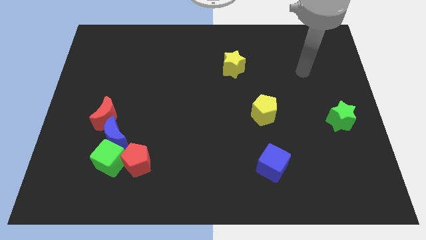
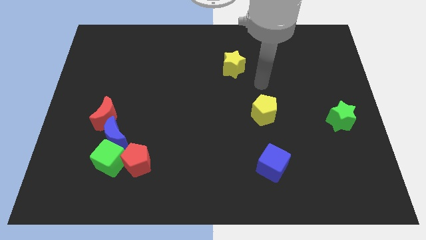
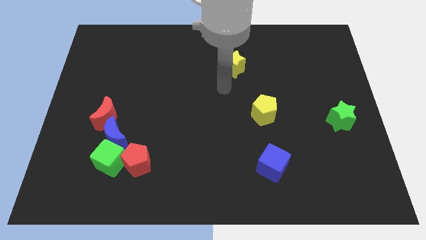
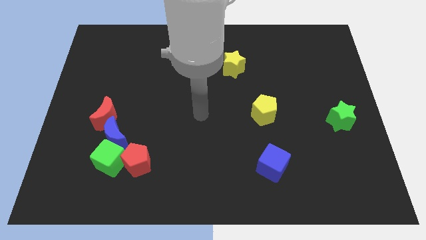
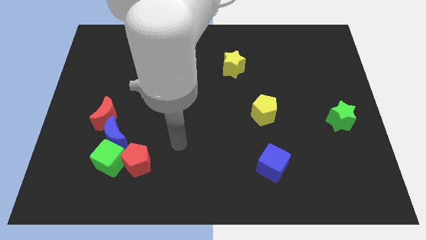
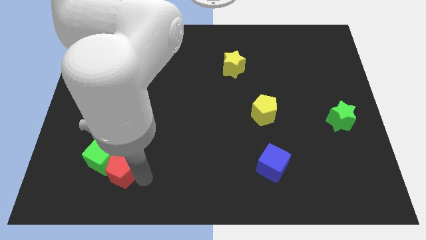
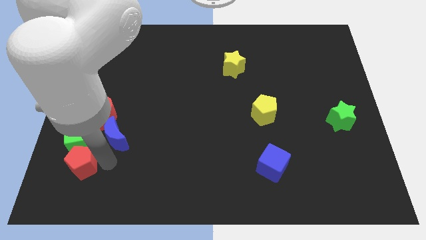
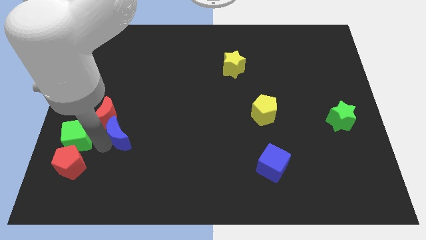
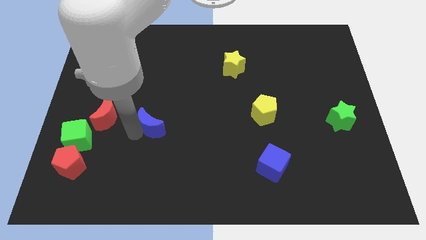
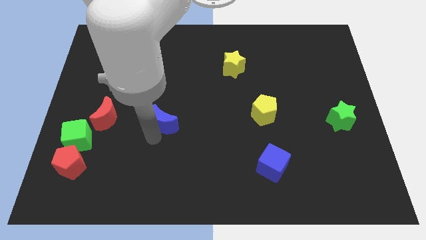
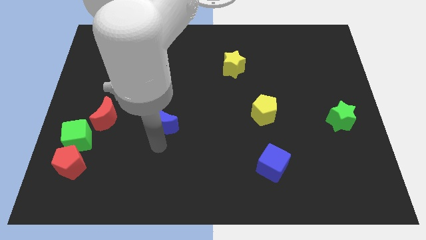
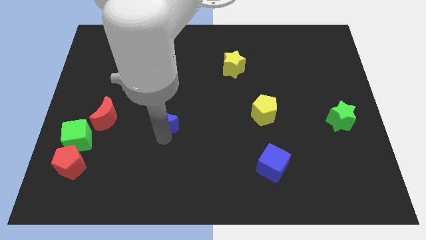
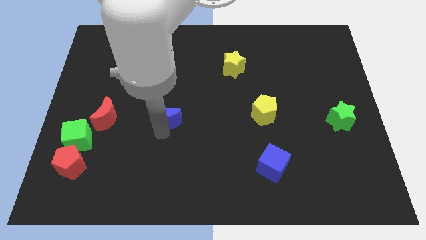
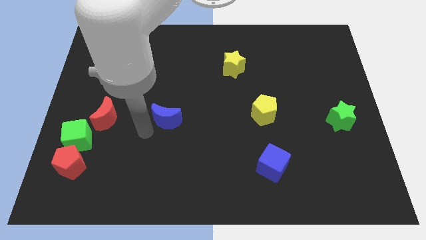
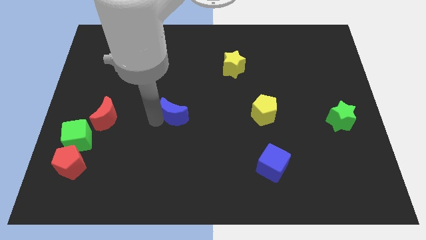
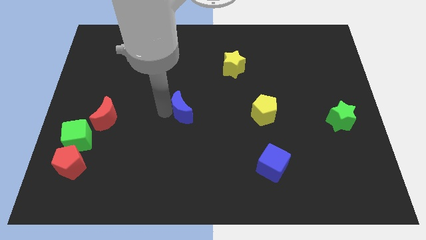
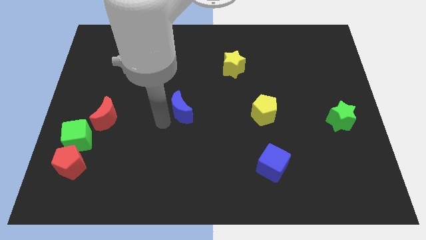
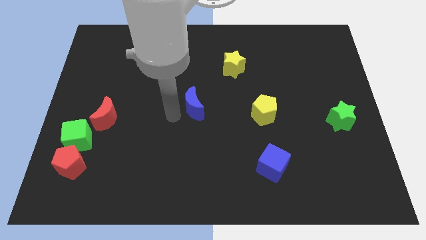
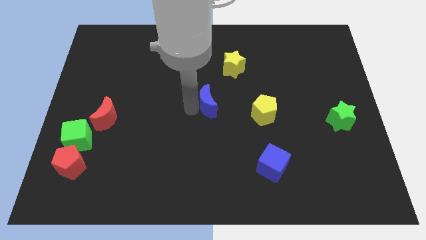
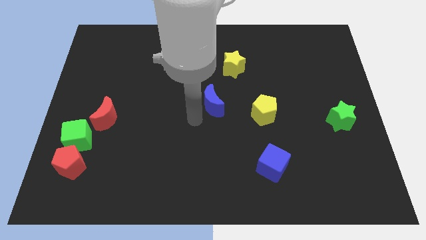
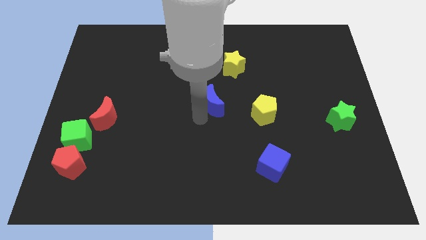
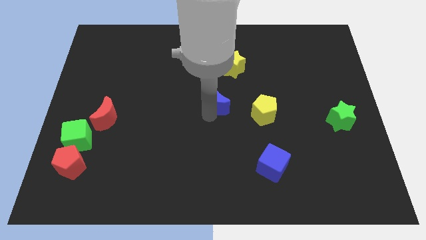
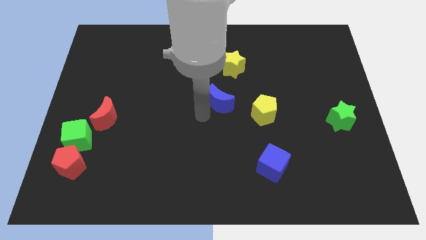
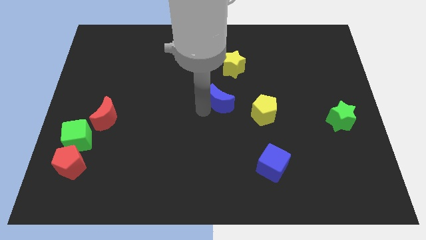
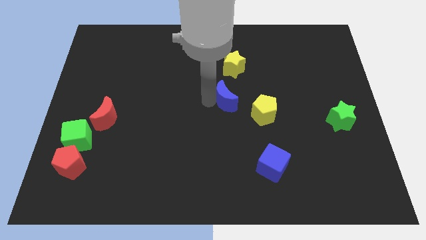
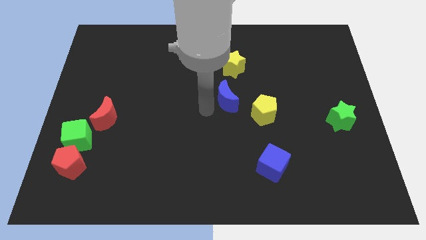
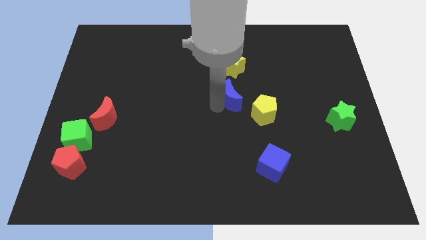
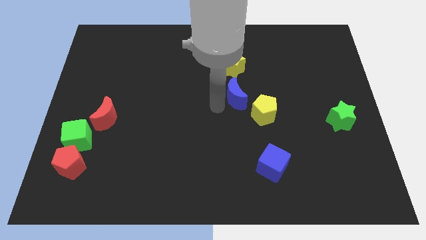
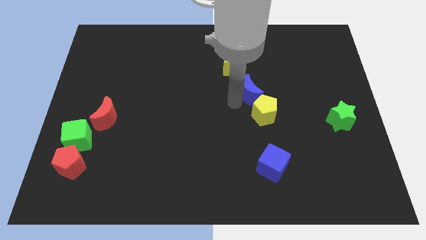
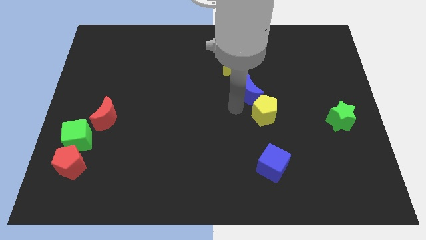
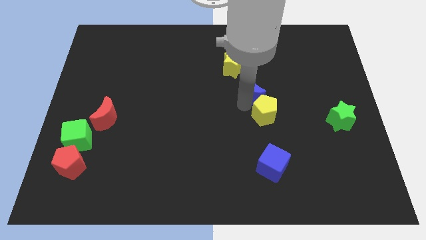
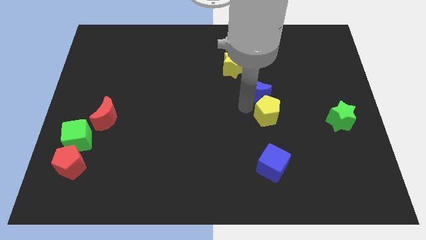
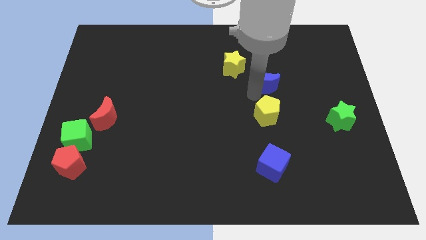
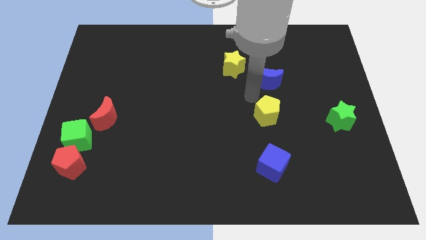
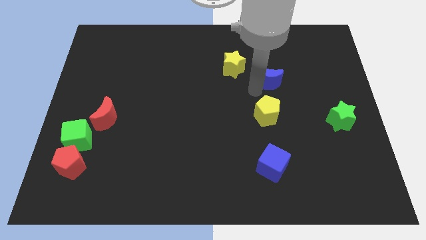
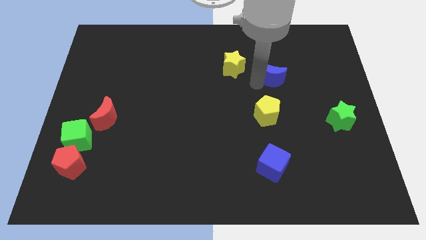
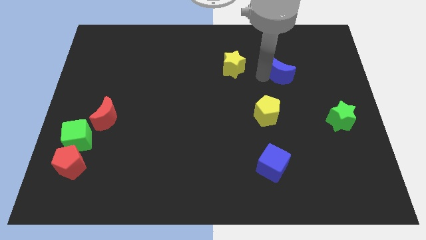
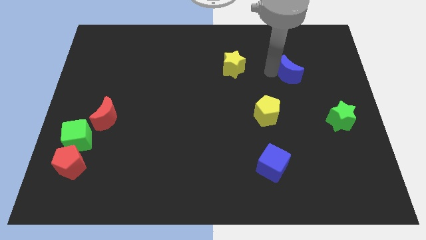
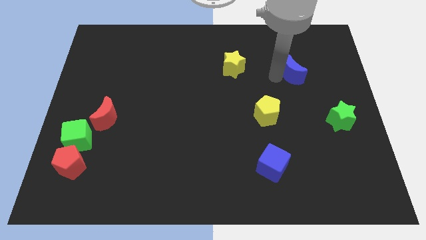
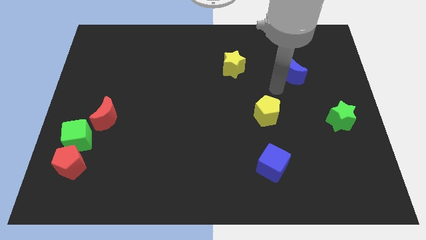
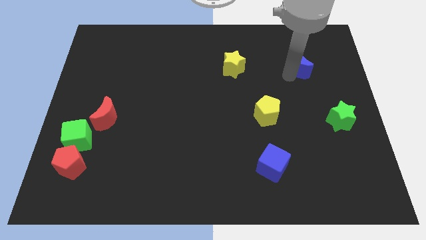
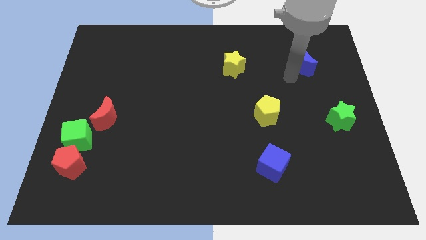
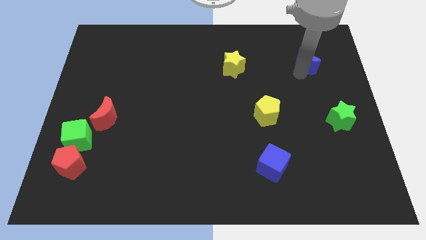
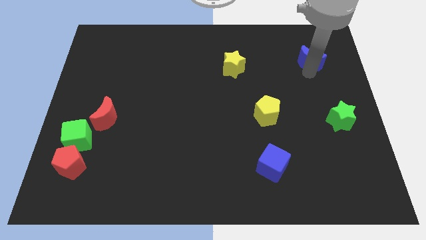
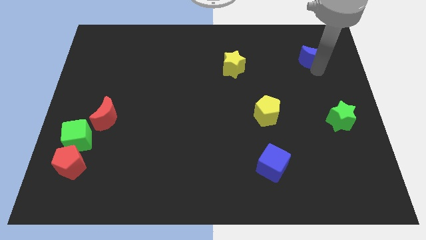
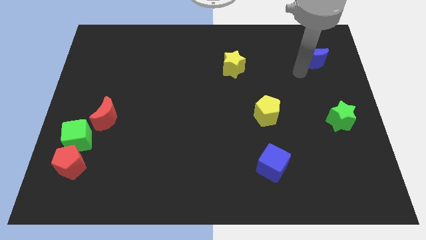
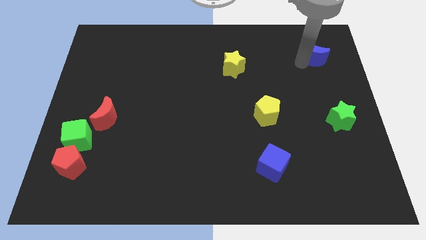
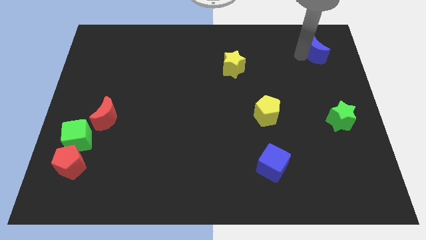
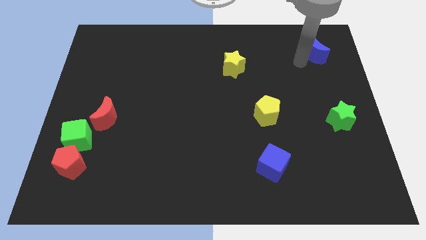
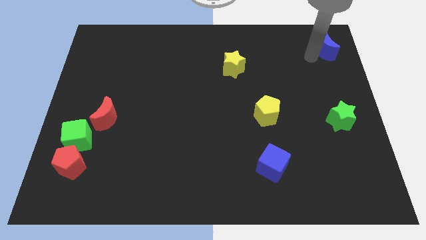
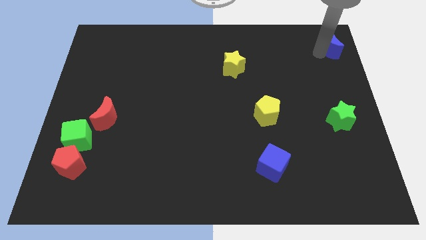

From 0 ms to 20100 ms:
slide the blue moon to the top right
